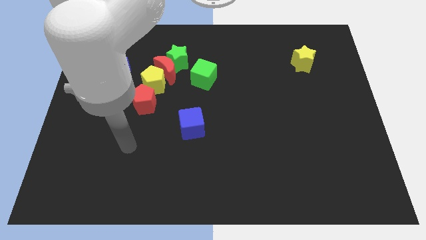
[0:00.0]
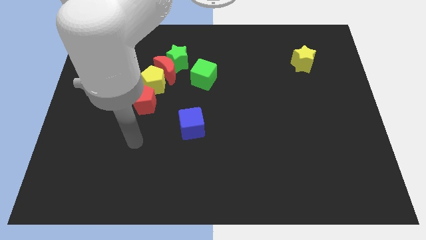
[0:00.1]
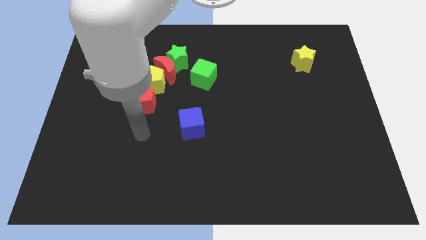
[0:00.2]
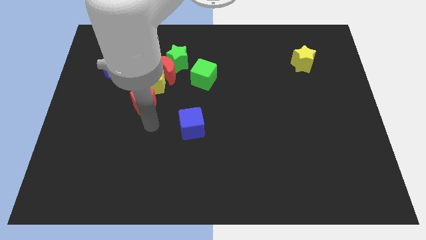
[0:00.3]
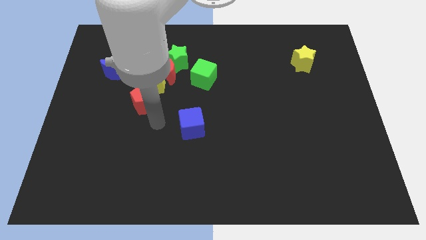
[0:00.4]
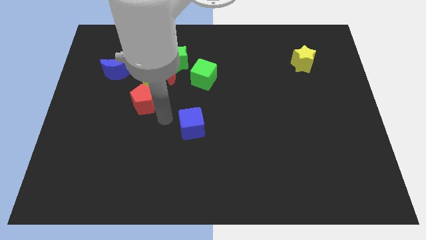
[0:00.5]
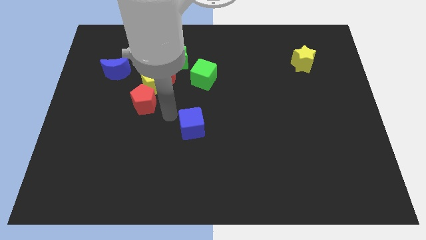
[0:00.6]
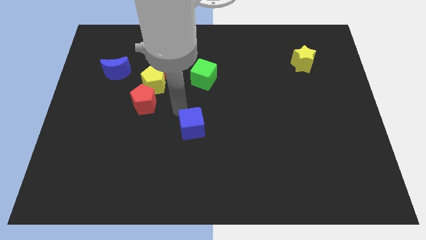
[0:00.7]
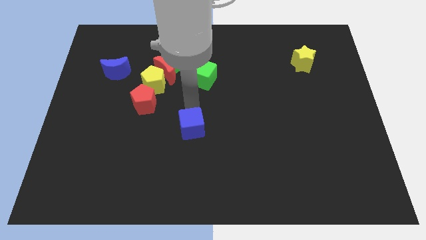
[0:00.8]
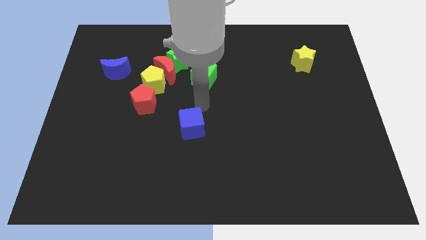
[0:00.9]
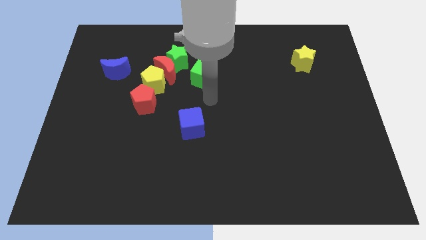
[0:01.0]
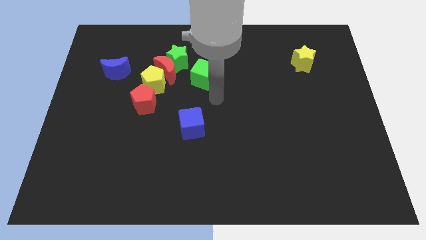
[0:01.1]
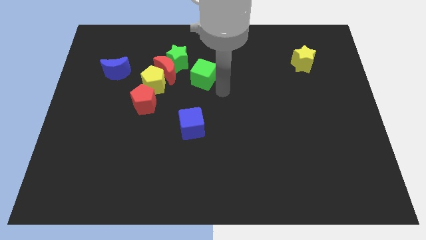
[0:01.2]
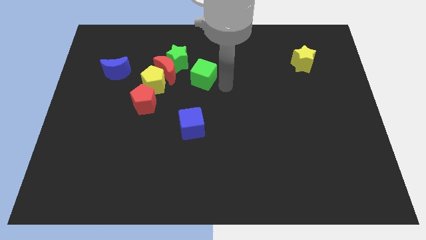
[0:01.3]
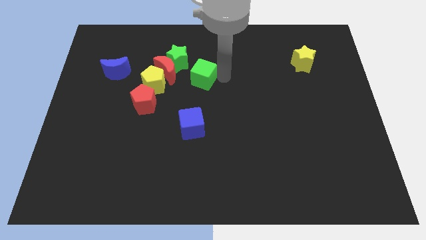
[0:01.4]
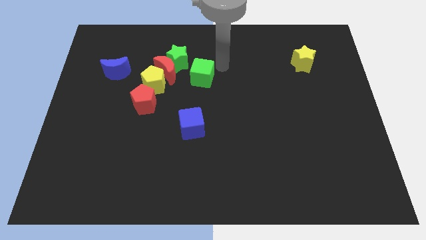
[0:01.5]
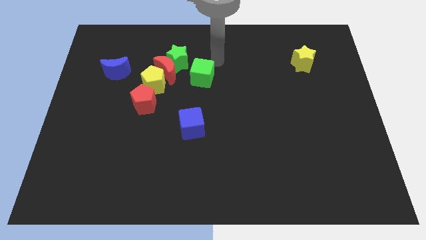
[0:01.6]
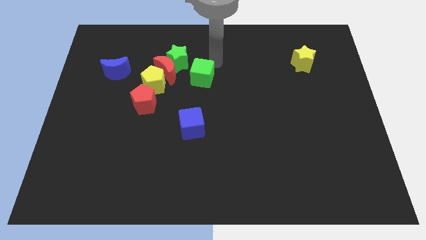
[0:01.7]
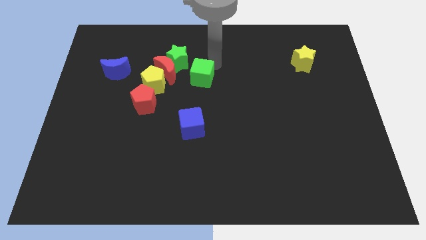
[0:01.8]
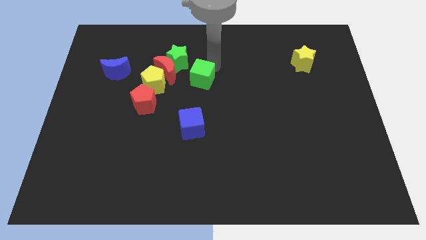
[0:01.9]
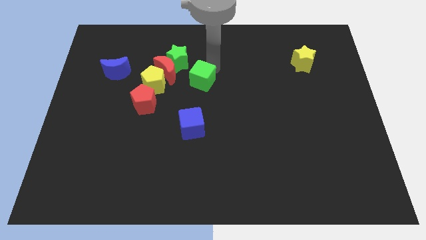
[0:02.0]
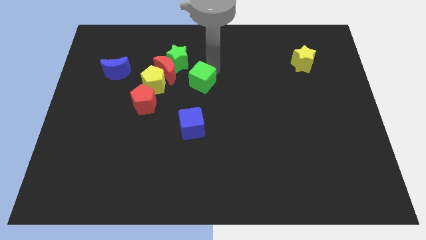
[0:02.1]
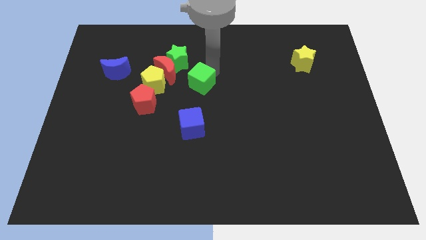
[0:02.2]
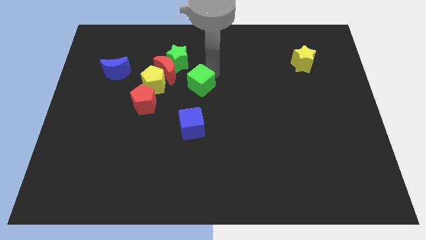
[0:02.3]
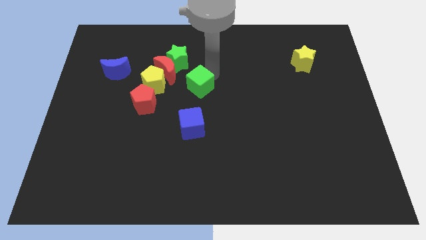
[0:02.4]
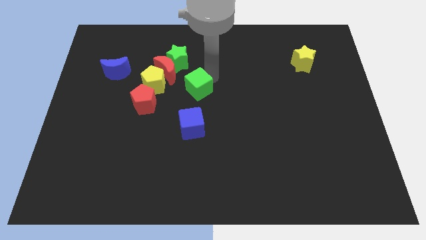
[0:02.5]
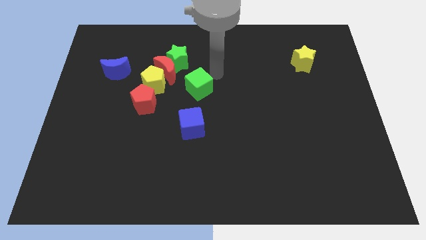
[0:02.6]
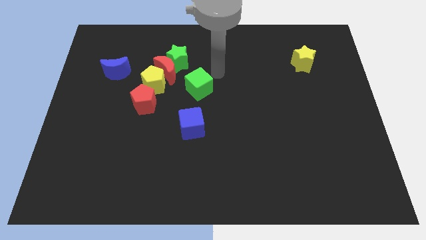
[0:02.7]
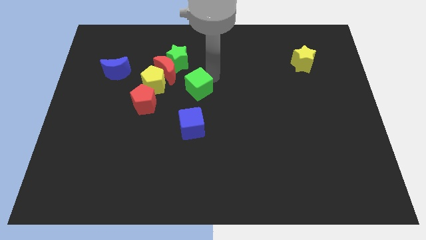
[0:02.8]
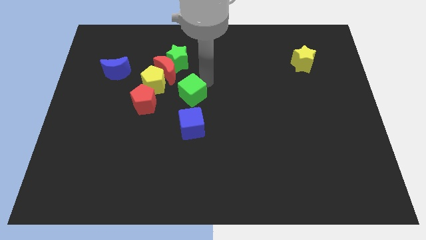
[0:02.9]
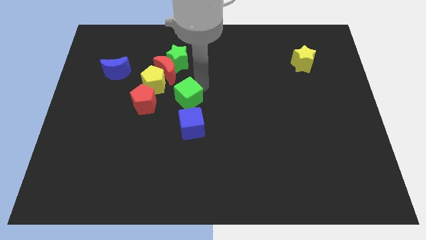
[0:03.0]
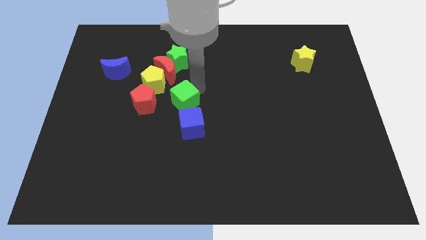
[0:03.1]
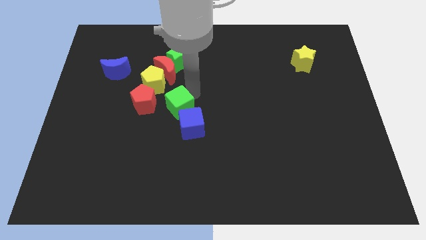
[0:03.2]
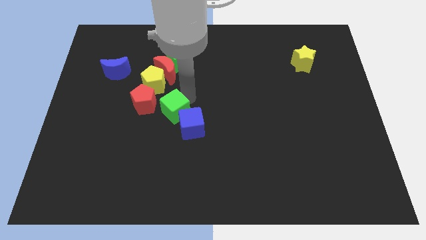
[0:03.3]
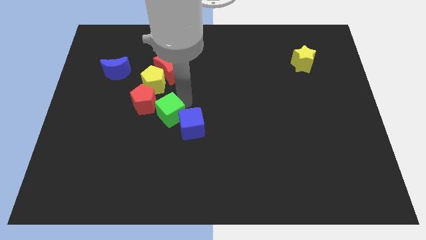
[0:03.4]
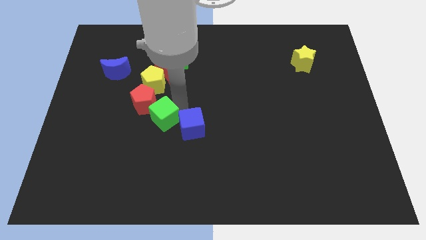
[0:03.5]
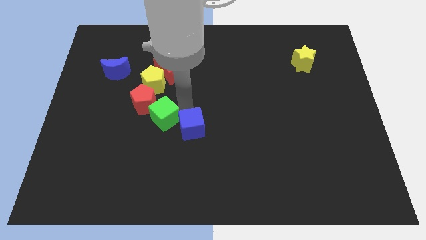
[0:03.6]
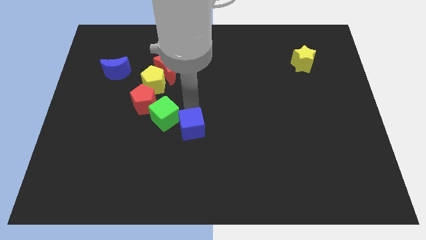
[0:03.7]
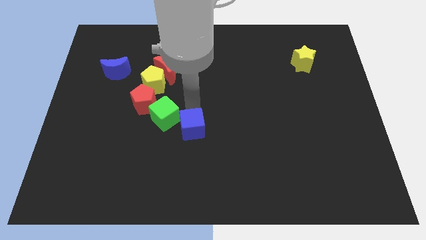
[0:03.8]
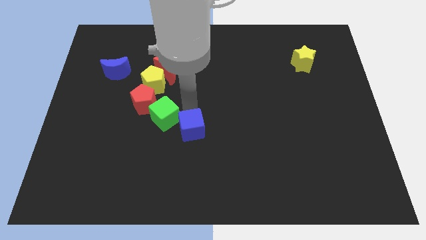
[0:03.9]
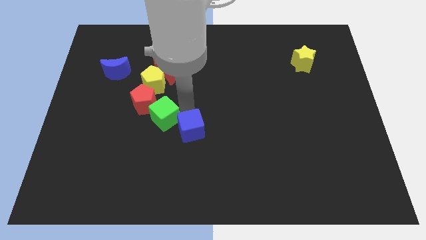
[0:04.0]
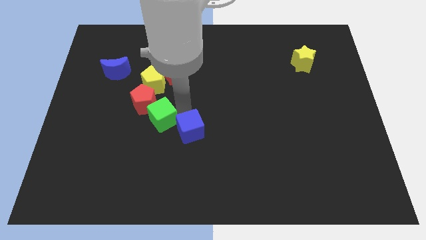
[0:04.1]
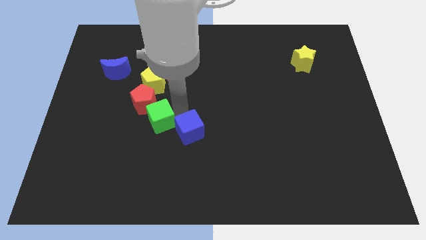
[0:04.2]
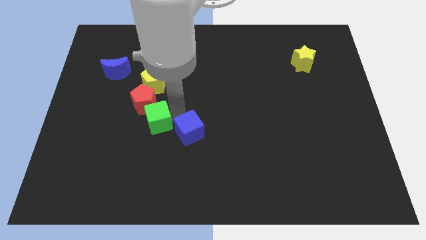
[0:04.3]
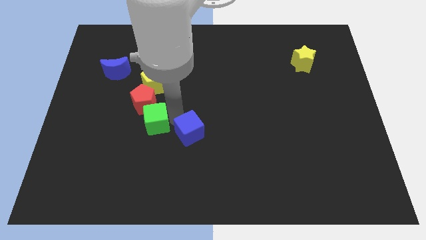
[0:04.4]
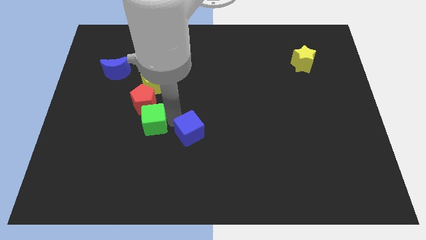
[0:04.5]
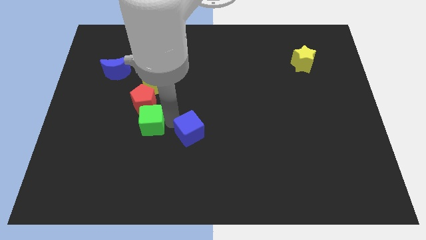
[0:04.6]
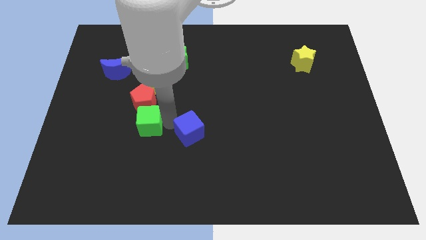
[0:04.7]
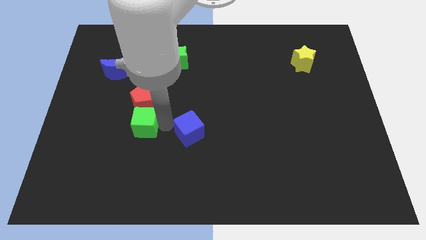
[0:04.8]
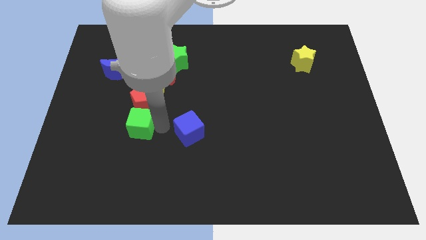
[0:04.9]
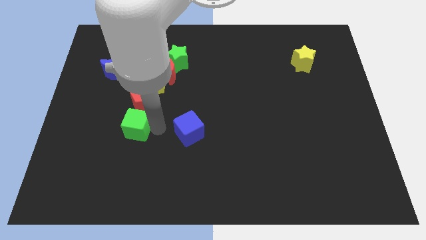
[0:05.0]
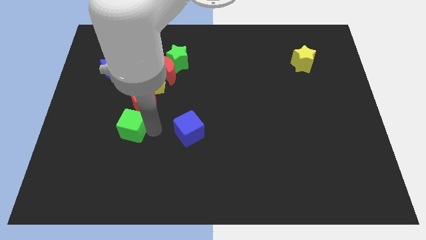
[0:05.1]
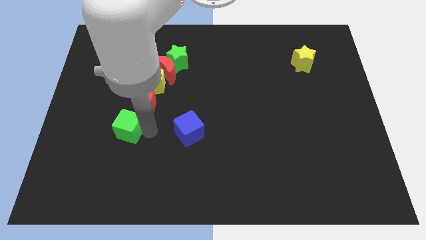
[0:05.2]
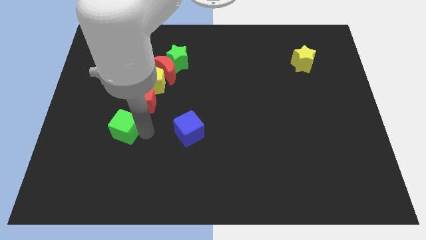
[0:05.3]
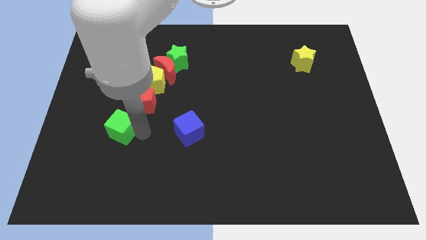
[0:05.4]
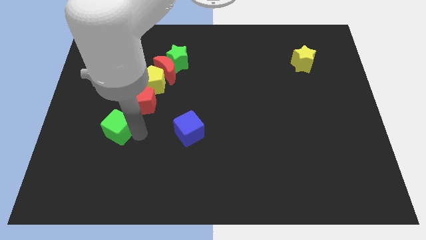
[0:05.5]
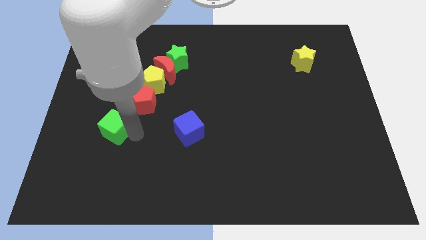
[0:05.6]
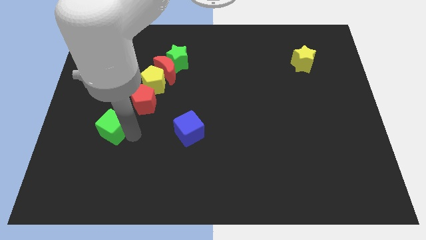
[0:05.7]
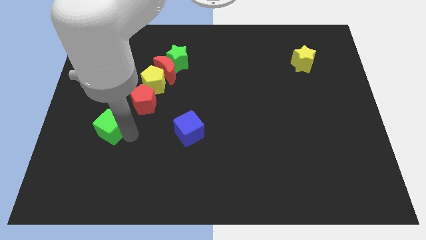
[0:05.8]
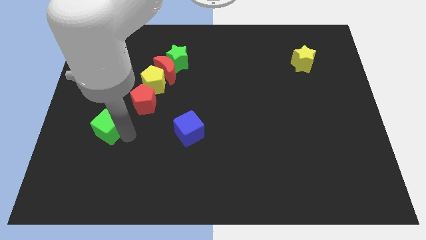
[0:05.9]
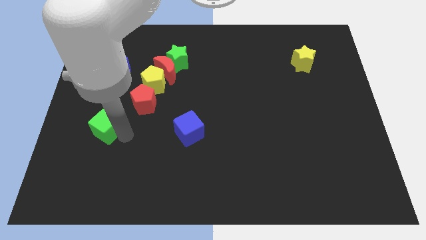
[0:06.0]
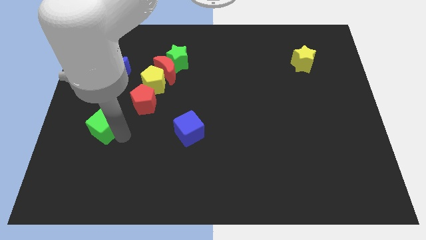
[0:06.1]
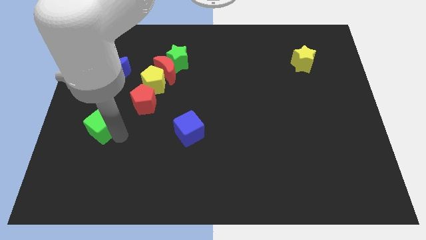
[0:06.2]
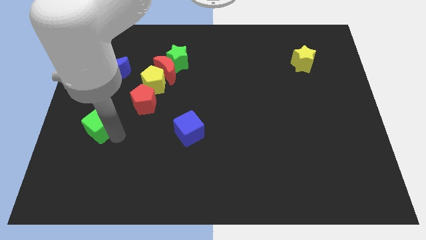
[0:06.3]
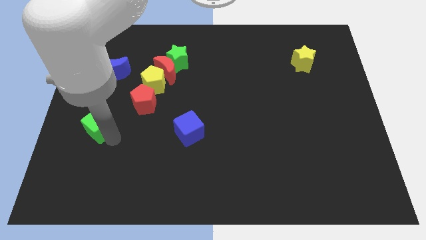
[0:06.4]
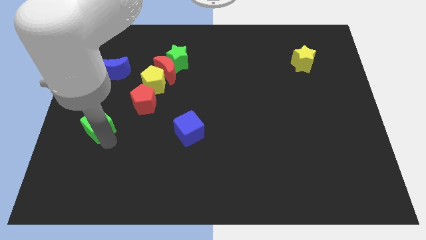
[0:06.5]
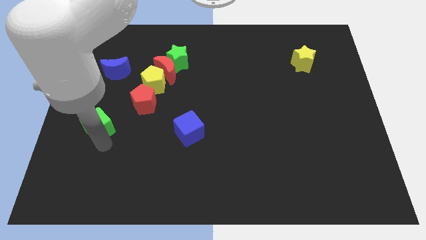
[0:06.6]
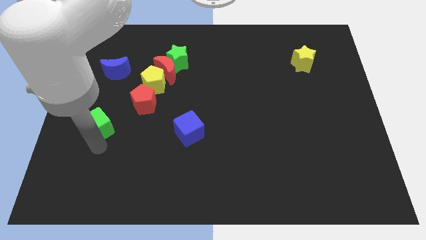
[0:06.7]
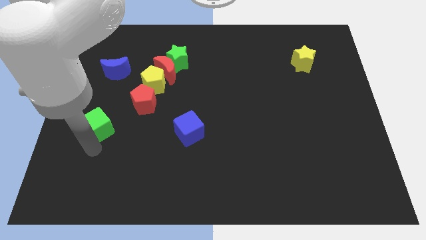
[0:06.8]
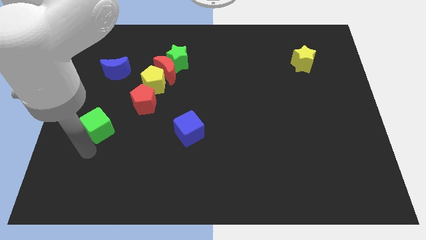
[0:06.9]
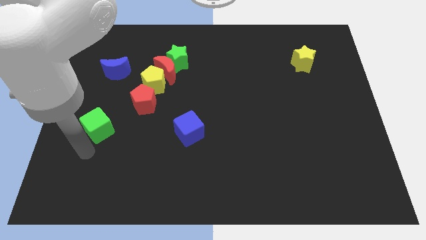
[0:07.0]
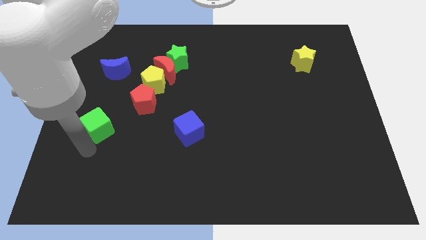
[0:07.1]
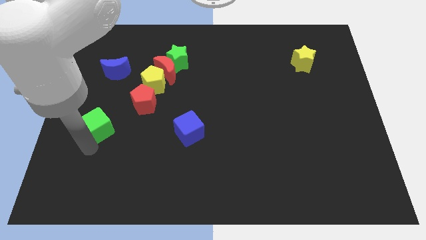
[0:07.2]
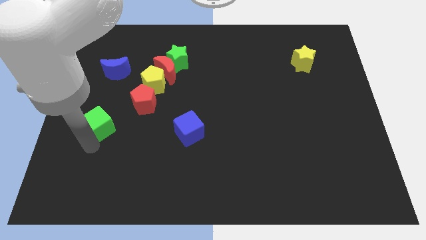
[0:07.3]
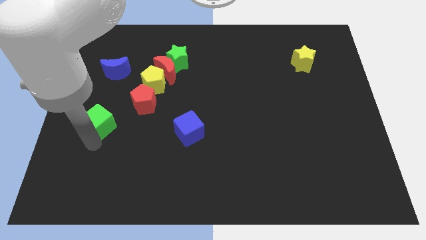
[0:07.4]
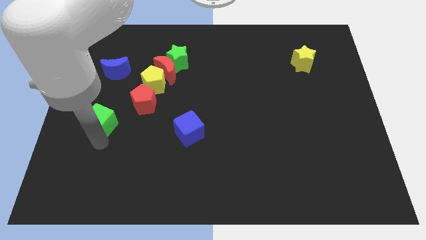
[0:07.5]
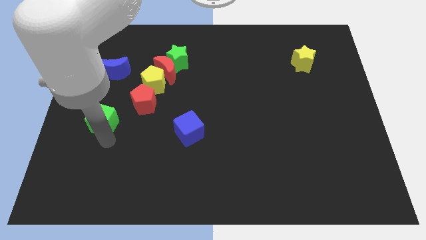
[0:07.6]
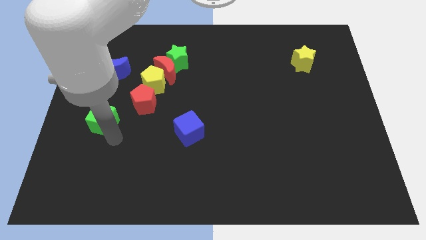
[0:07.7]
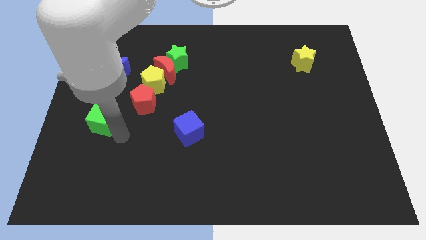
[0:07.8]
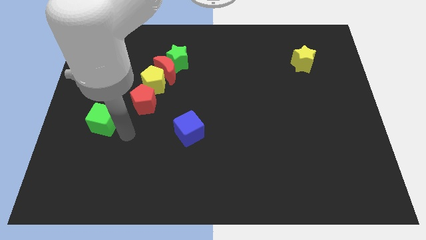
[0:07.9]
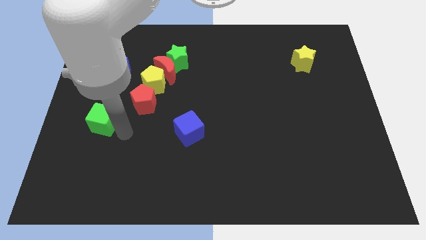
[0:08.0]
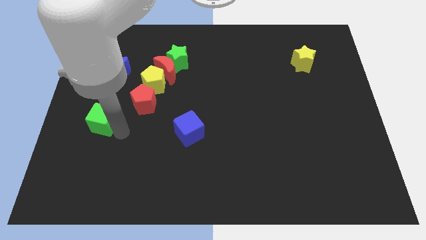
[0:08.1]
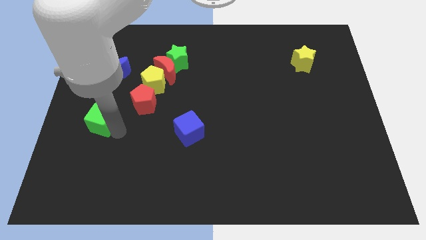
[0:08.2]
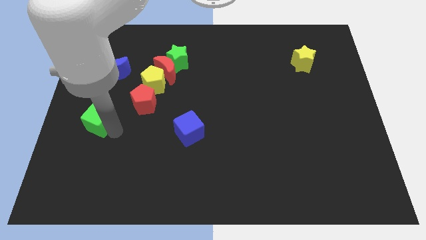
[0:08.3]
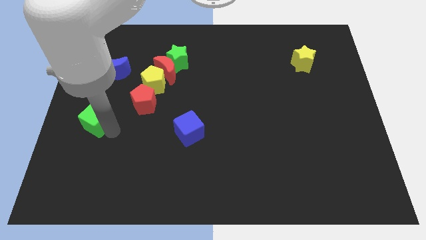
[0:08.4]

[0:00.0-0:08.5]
put the green cube to the left side of the board
